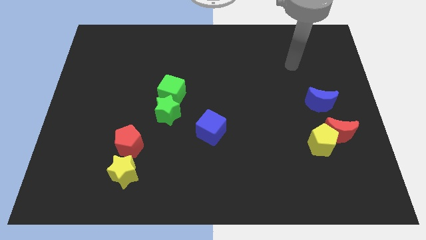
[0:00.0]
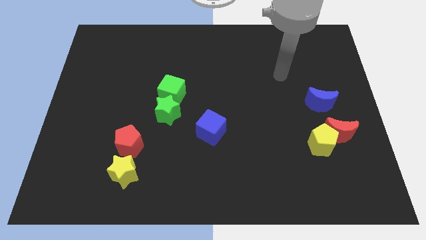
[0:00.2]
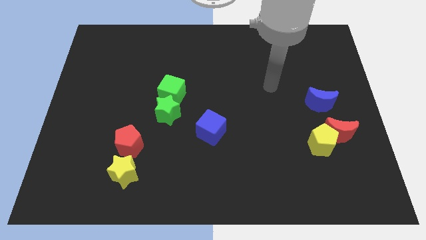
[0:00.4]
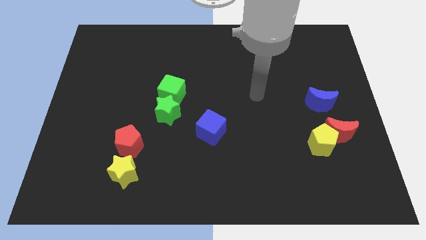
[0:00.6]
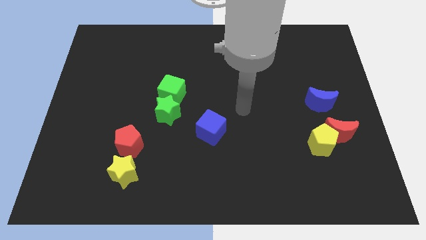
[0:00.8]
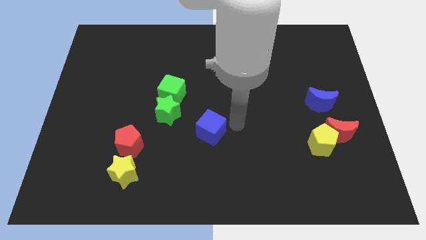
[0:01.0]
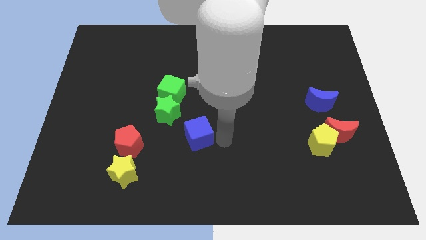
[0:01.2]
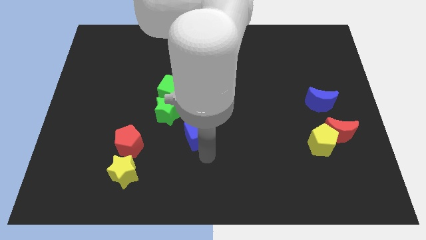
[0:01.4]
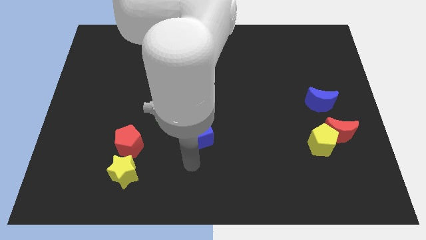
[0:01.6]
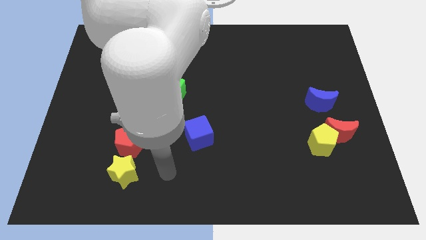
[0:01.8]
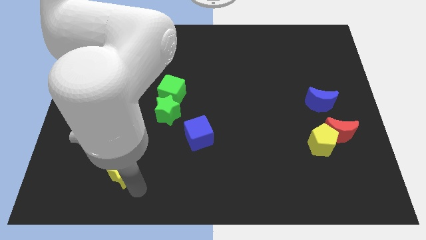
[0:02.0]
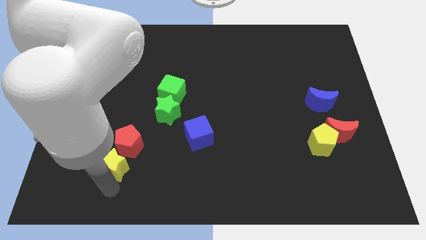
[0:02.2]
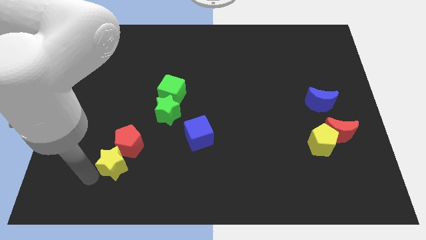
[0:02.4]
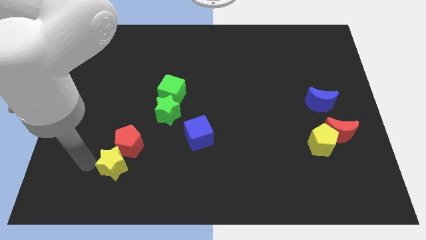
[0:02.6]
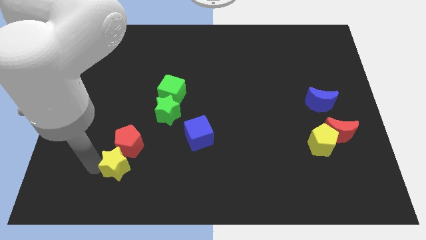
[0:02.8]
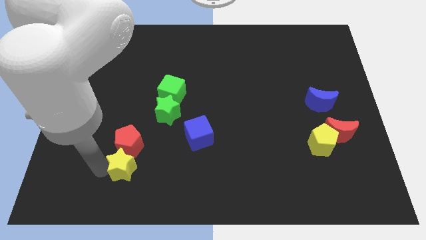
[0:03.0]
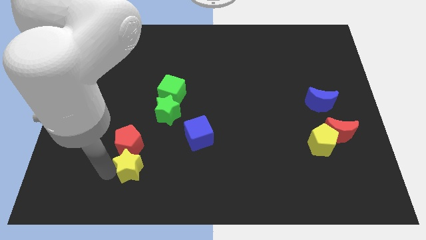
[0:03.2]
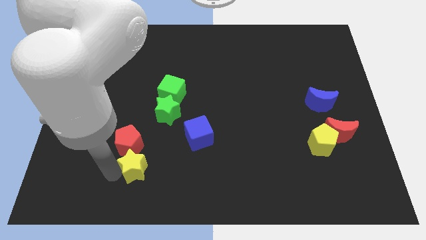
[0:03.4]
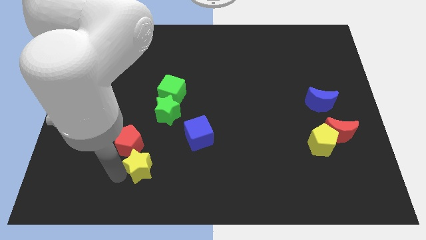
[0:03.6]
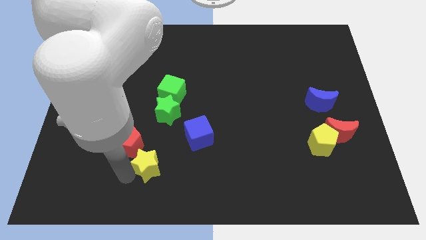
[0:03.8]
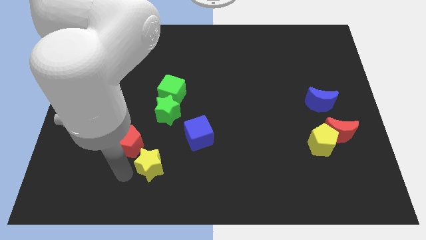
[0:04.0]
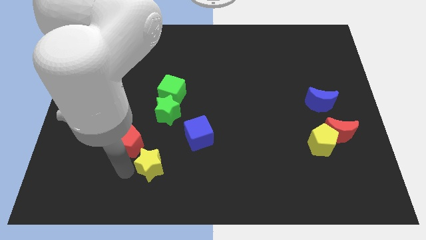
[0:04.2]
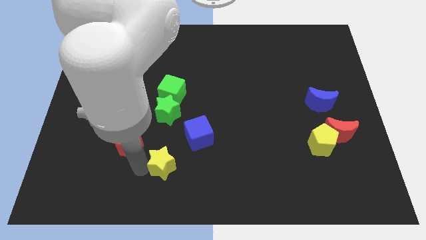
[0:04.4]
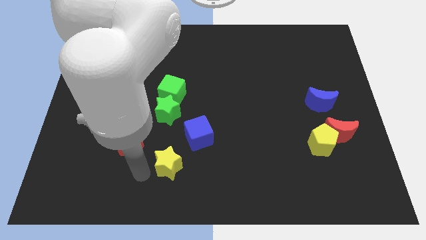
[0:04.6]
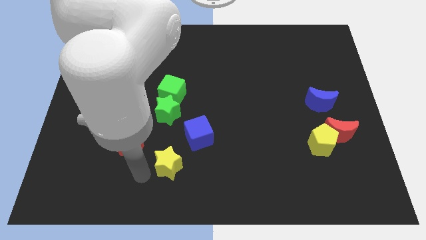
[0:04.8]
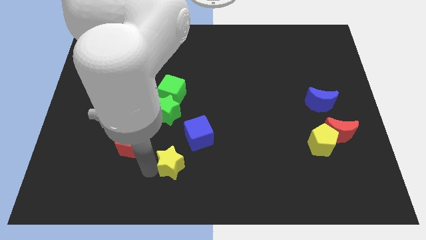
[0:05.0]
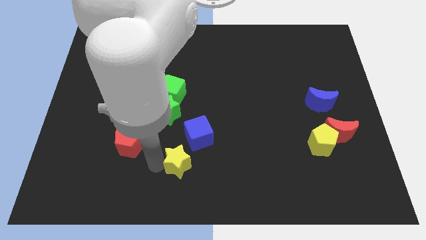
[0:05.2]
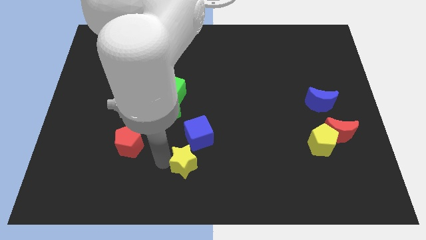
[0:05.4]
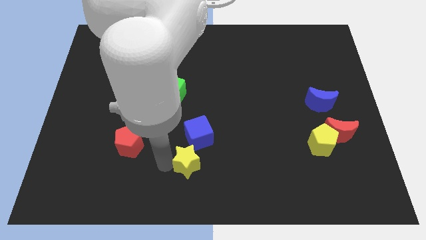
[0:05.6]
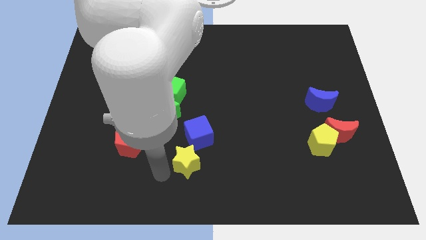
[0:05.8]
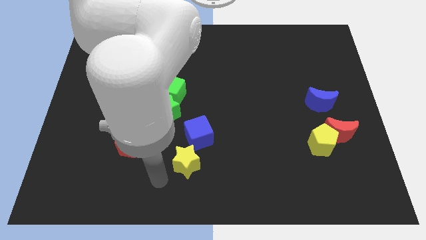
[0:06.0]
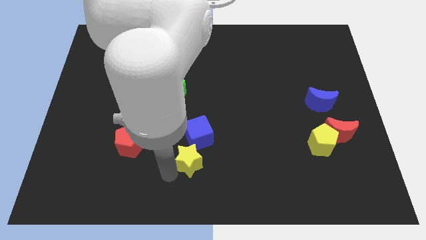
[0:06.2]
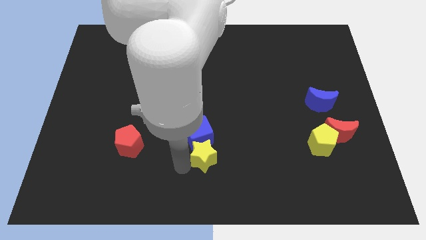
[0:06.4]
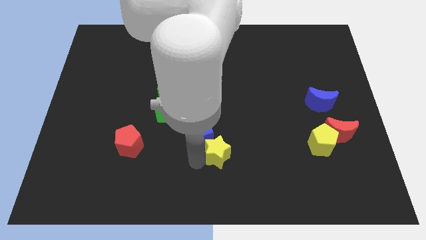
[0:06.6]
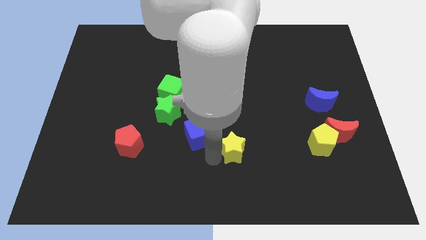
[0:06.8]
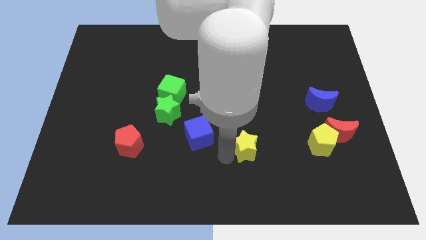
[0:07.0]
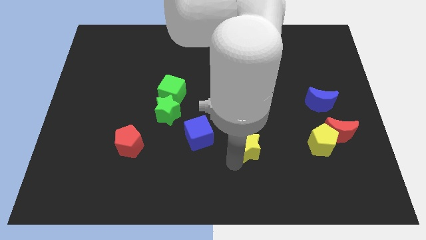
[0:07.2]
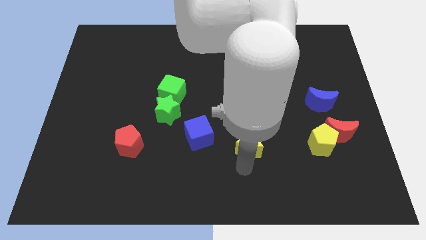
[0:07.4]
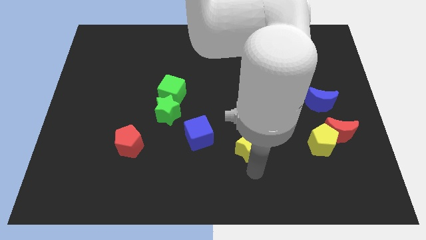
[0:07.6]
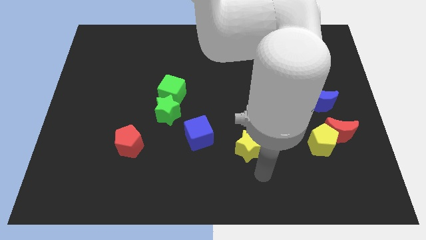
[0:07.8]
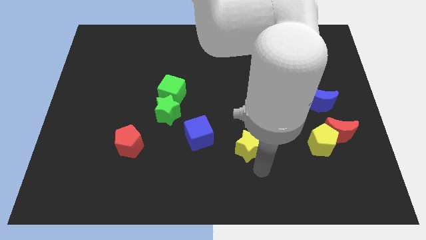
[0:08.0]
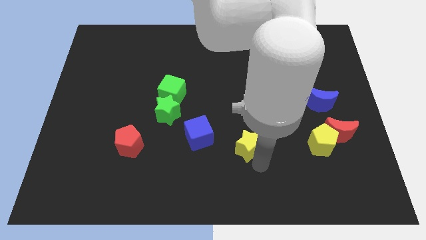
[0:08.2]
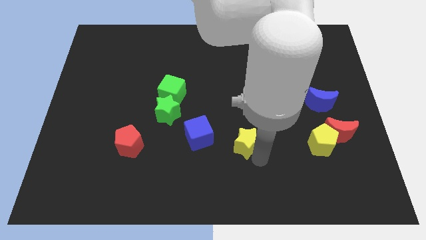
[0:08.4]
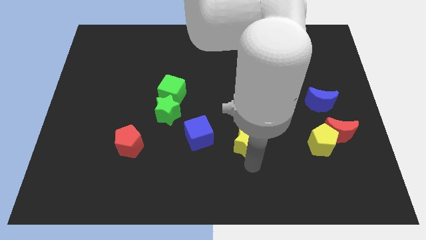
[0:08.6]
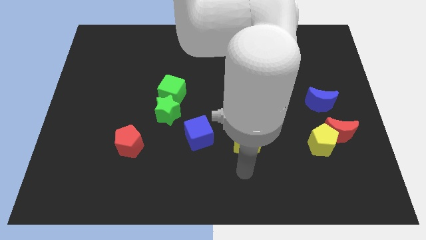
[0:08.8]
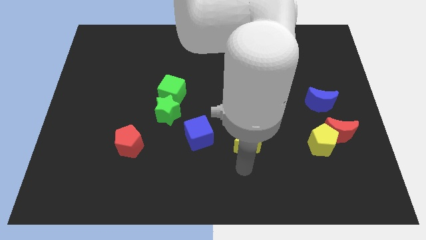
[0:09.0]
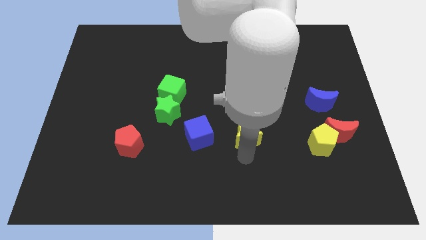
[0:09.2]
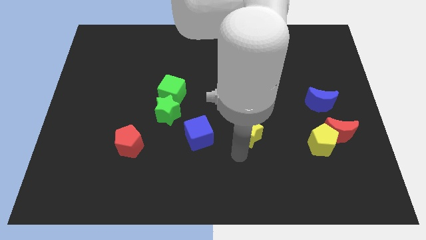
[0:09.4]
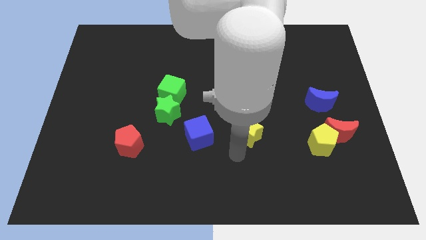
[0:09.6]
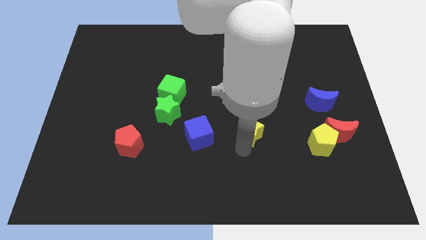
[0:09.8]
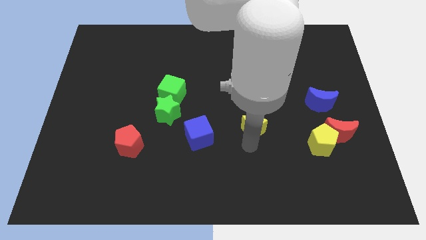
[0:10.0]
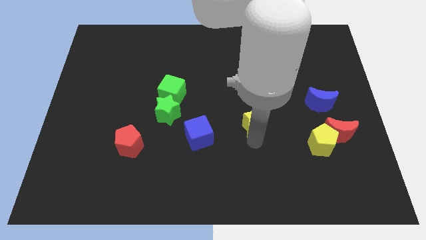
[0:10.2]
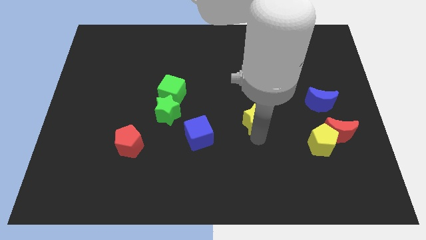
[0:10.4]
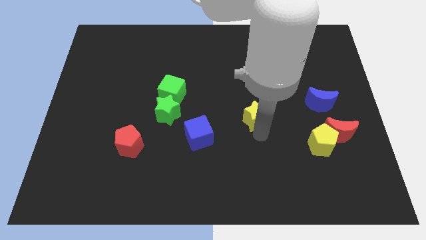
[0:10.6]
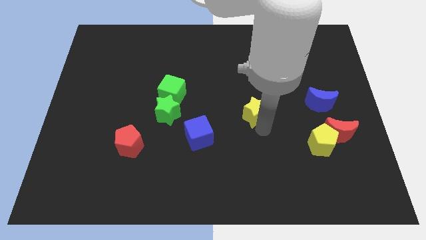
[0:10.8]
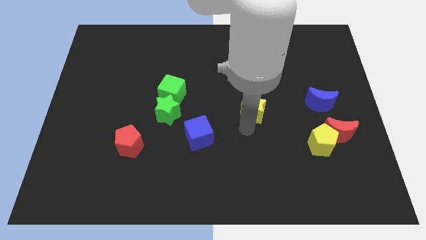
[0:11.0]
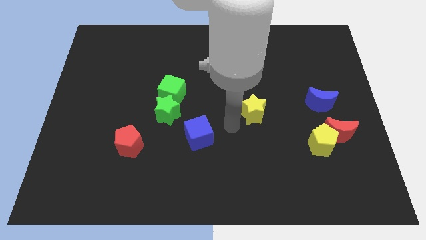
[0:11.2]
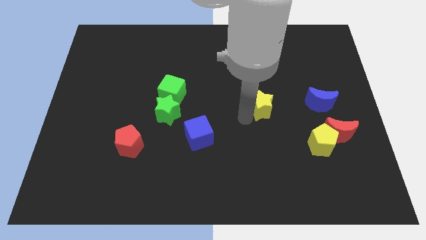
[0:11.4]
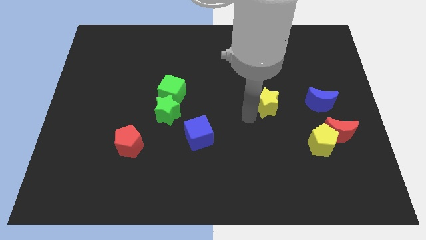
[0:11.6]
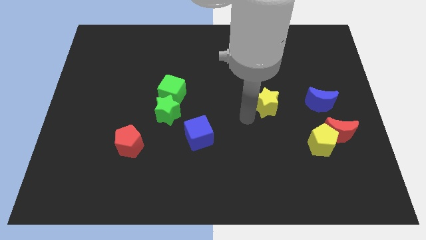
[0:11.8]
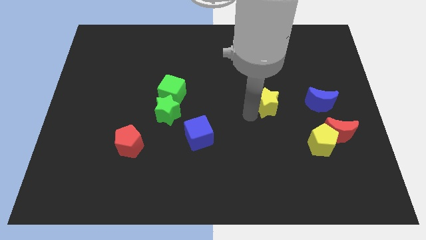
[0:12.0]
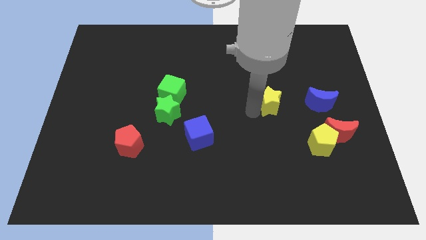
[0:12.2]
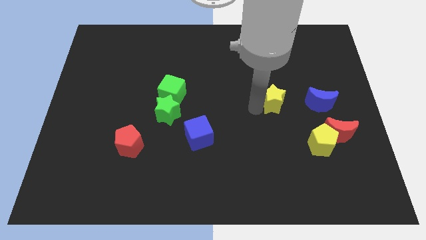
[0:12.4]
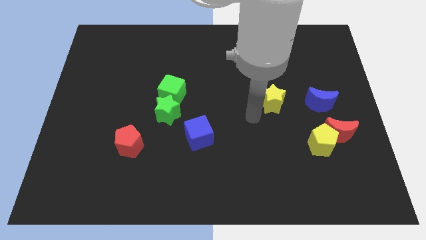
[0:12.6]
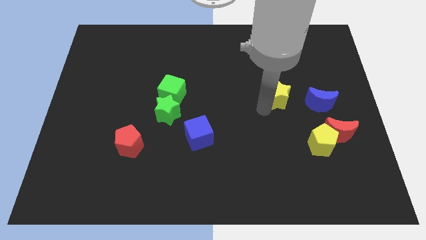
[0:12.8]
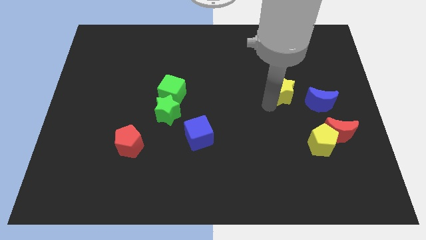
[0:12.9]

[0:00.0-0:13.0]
push the yellow star to the top left of the blue moon

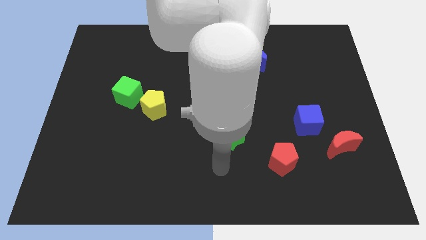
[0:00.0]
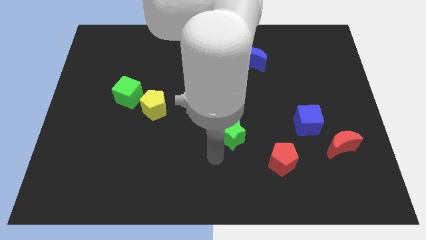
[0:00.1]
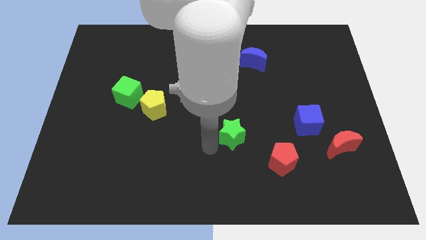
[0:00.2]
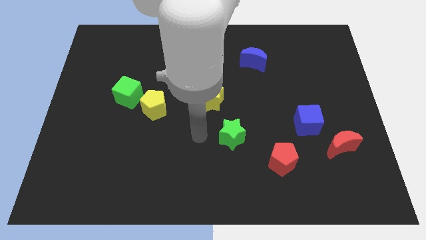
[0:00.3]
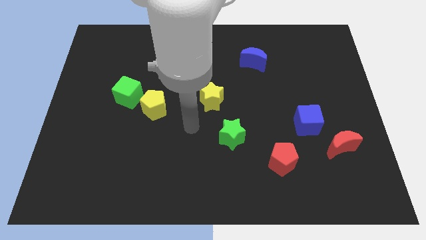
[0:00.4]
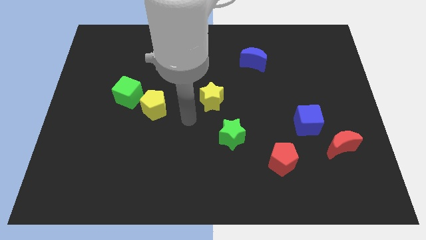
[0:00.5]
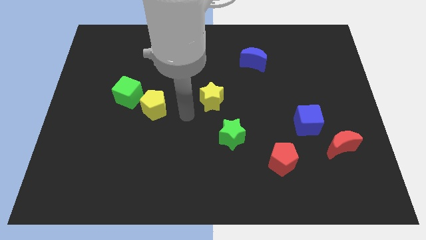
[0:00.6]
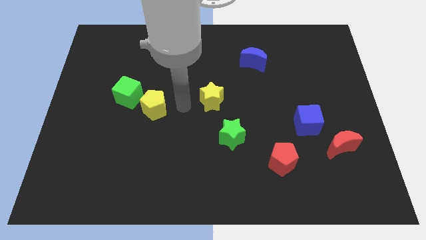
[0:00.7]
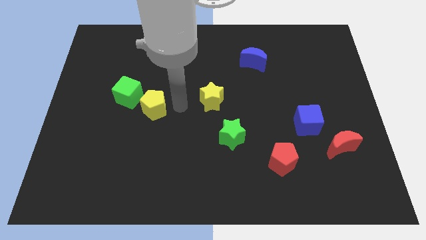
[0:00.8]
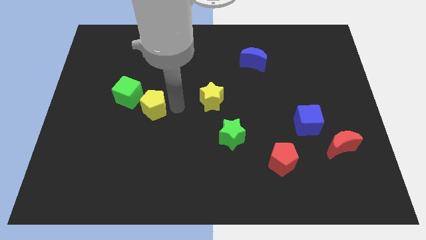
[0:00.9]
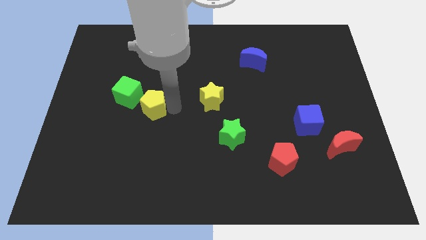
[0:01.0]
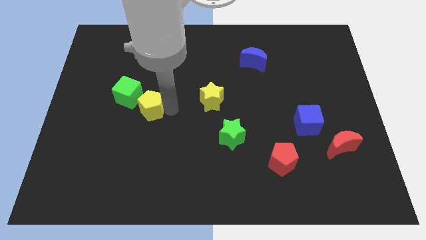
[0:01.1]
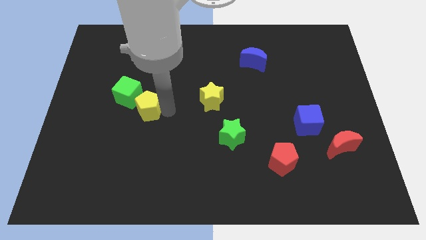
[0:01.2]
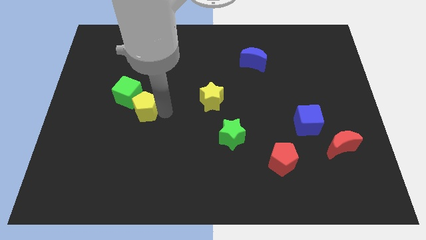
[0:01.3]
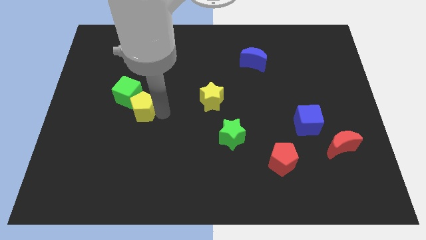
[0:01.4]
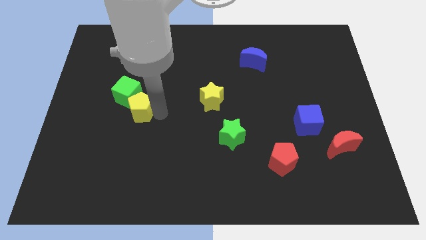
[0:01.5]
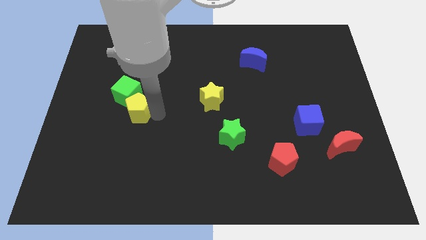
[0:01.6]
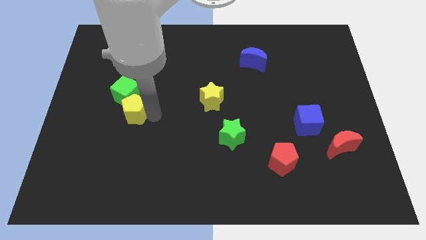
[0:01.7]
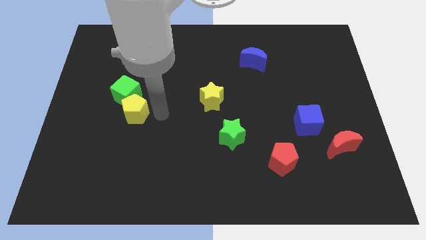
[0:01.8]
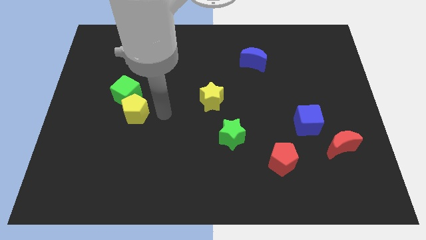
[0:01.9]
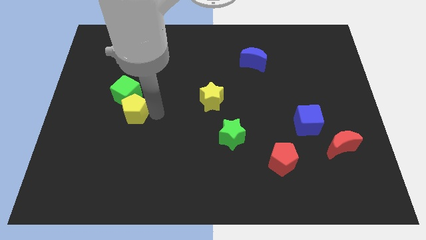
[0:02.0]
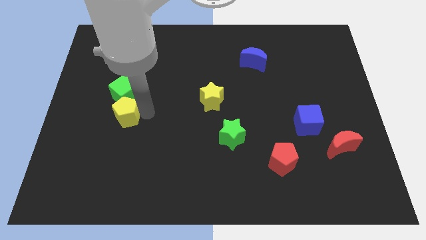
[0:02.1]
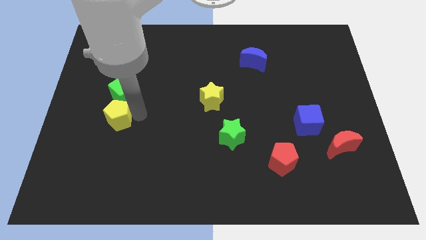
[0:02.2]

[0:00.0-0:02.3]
slide the yellow pentagon to the bottom left of the green cube
